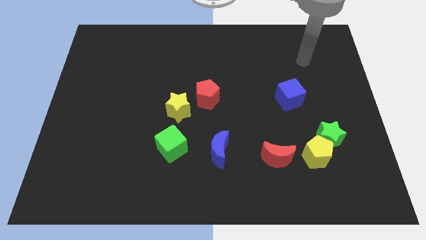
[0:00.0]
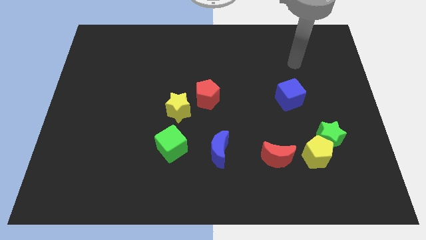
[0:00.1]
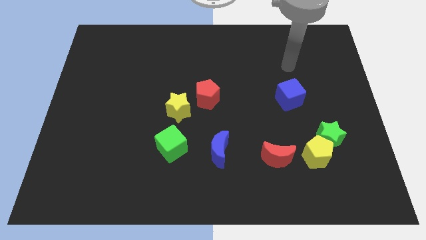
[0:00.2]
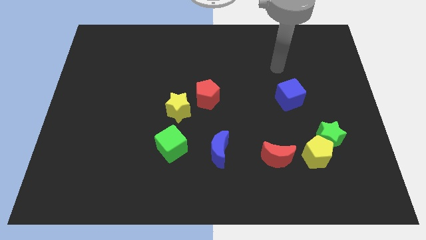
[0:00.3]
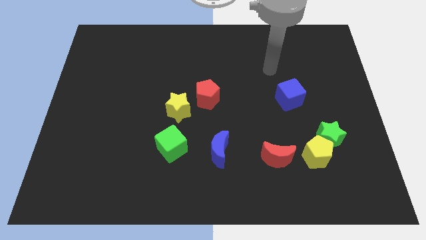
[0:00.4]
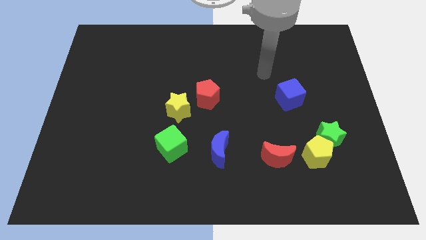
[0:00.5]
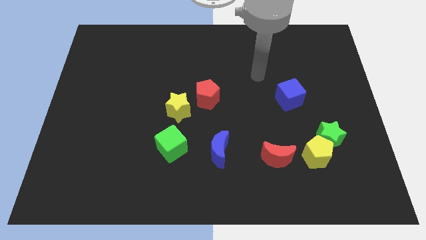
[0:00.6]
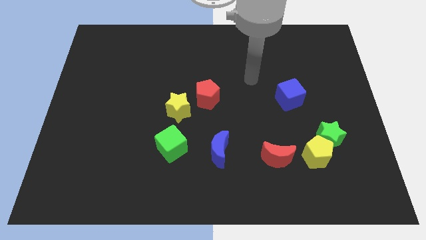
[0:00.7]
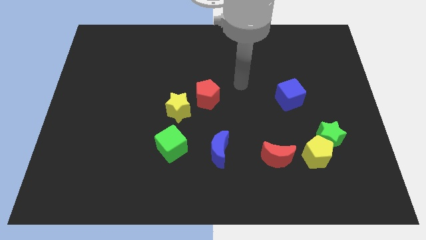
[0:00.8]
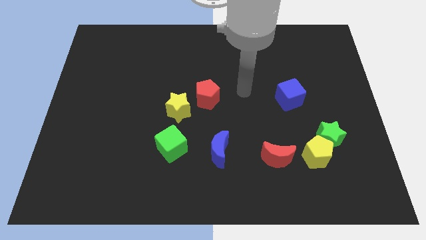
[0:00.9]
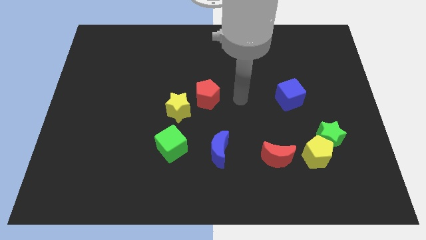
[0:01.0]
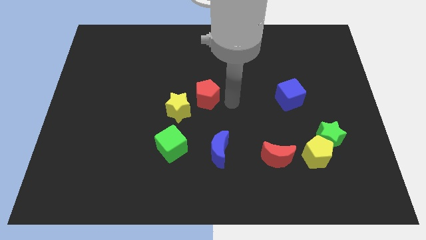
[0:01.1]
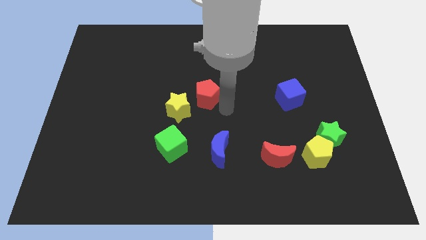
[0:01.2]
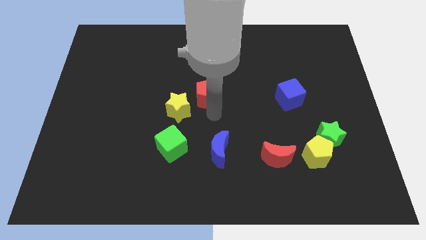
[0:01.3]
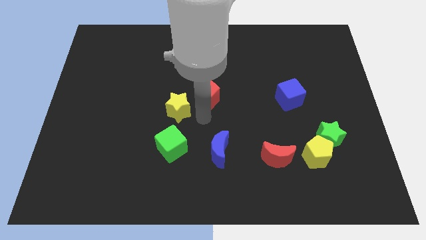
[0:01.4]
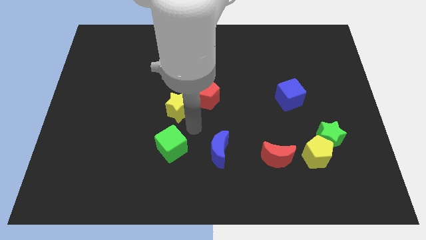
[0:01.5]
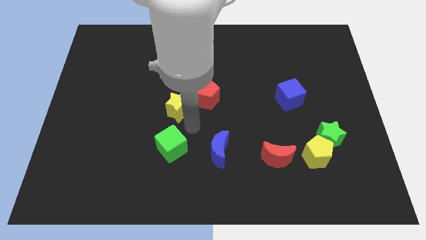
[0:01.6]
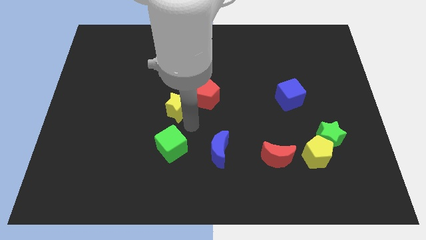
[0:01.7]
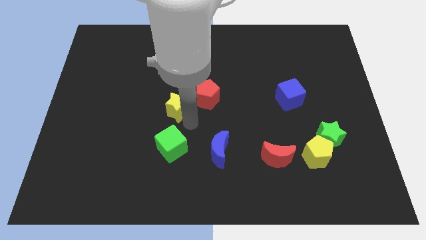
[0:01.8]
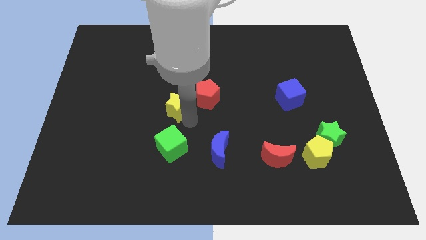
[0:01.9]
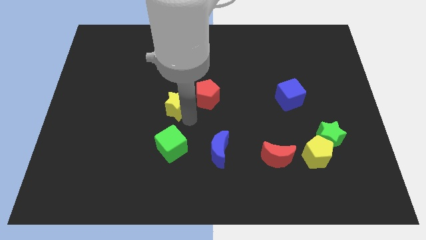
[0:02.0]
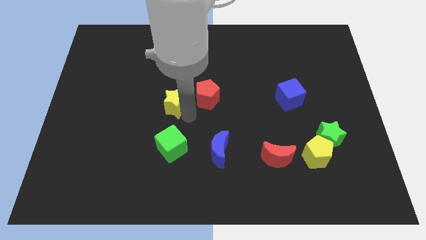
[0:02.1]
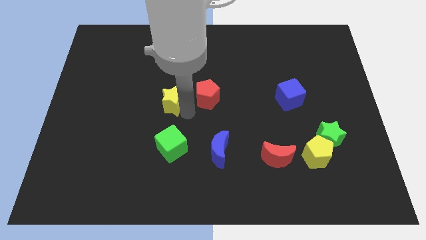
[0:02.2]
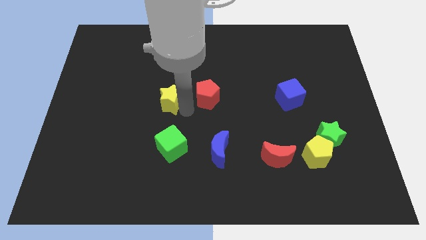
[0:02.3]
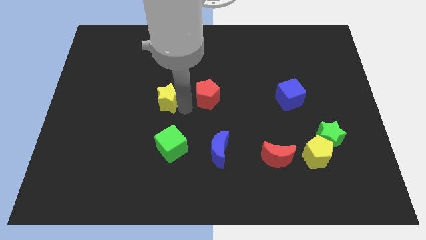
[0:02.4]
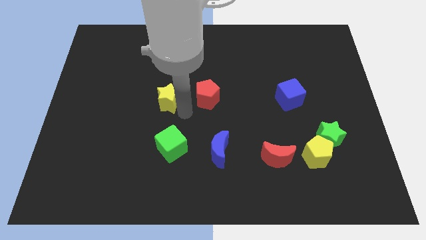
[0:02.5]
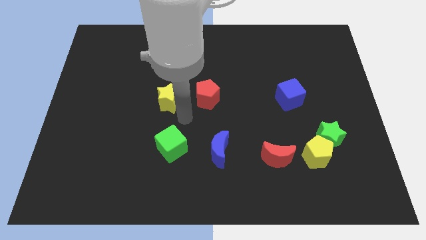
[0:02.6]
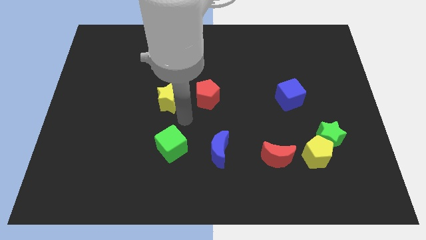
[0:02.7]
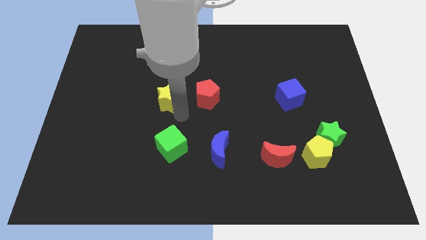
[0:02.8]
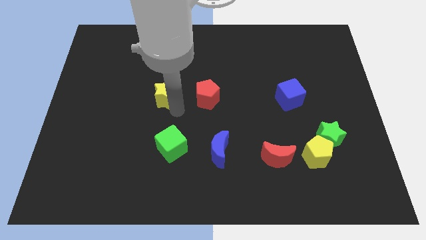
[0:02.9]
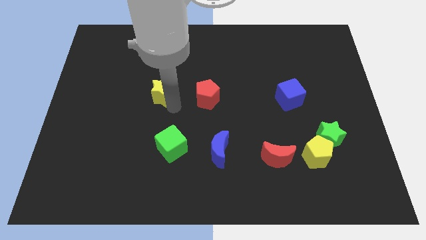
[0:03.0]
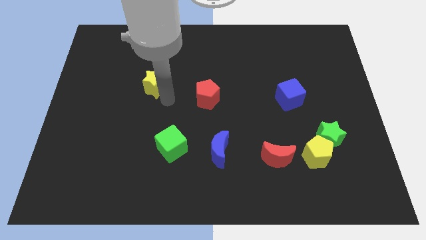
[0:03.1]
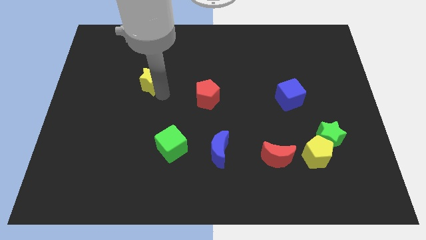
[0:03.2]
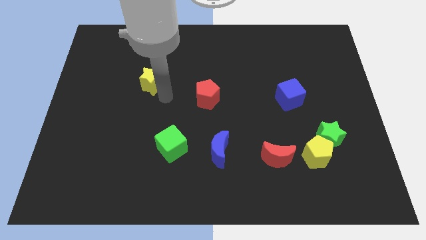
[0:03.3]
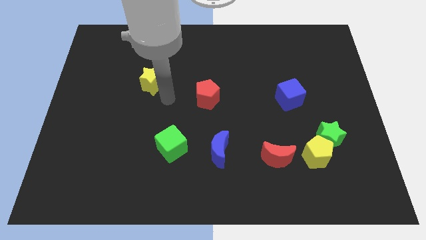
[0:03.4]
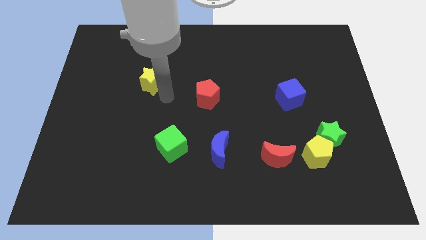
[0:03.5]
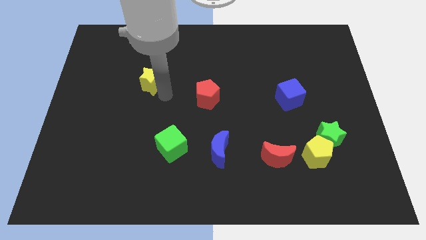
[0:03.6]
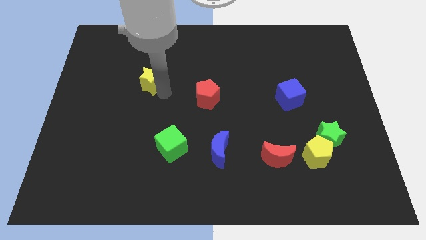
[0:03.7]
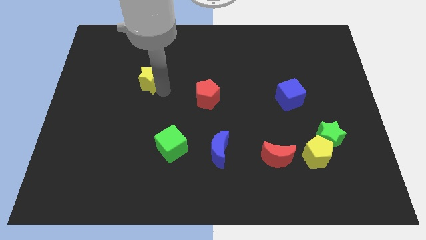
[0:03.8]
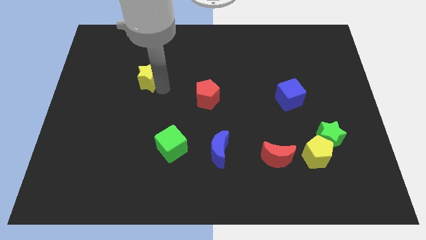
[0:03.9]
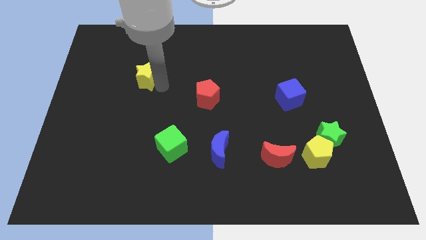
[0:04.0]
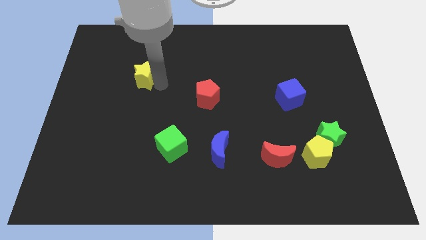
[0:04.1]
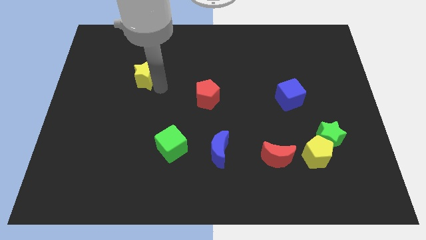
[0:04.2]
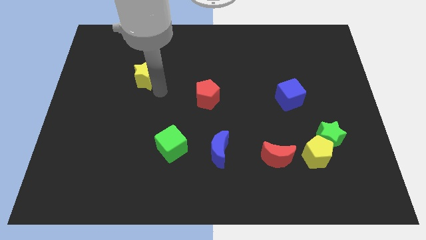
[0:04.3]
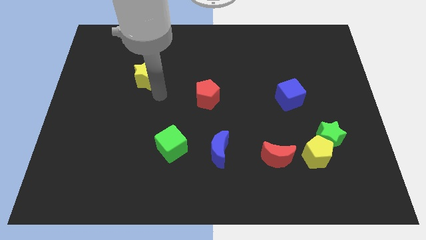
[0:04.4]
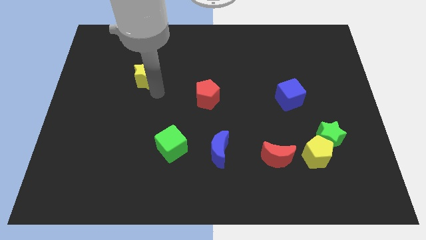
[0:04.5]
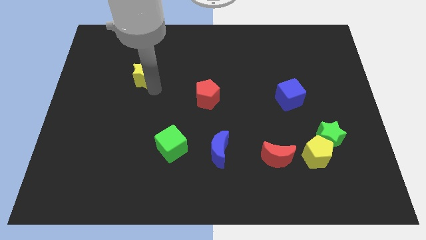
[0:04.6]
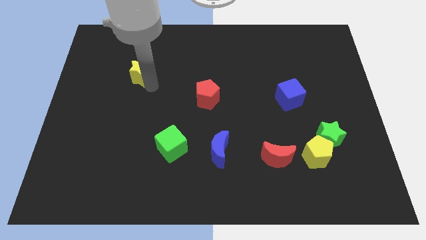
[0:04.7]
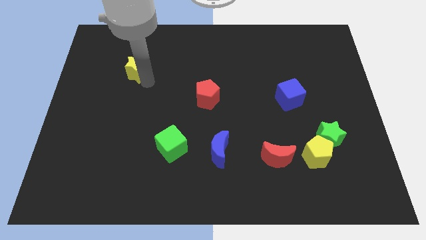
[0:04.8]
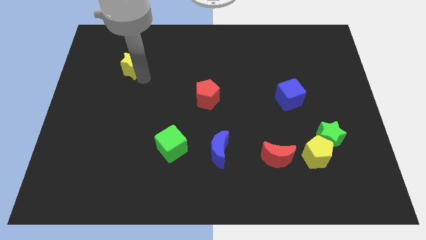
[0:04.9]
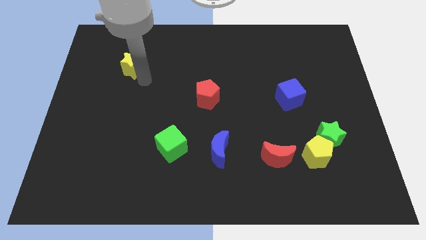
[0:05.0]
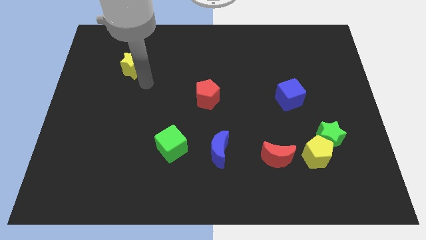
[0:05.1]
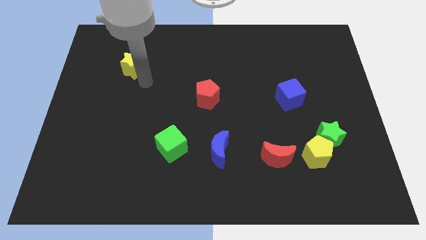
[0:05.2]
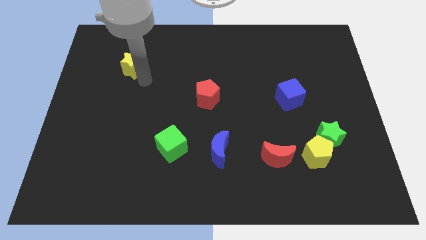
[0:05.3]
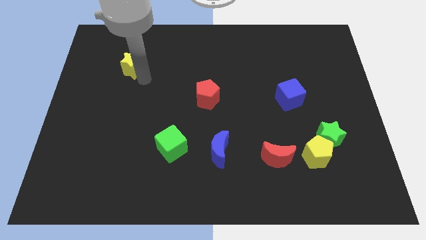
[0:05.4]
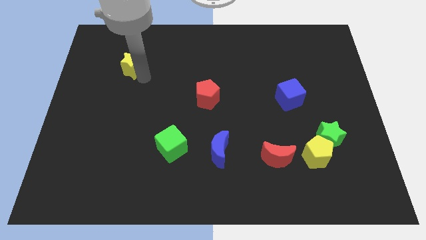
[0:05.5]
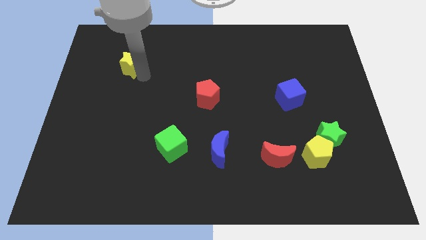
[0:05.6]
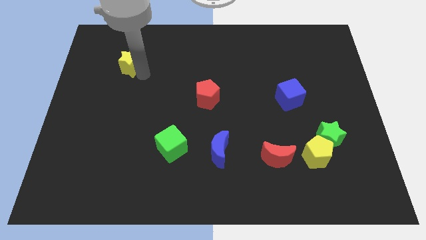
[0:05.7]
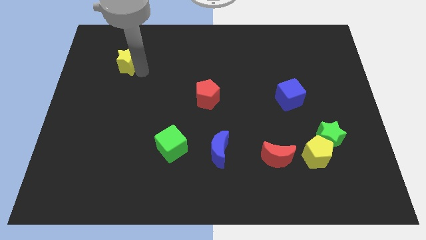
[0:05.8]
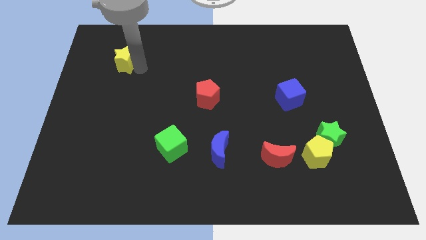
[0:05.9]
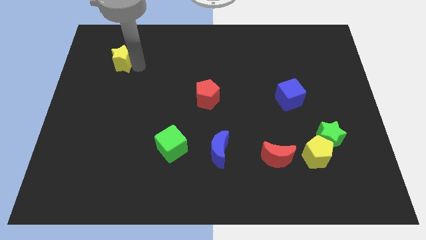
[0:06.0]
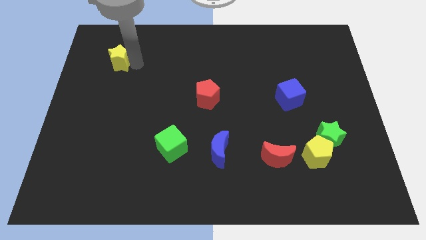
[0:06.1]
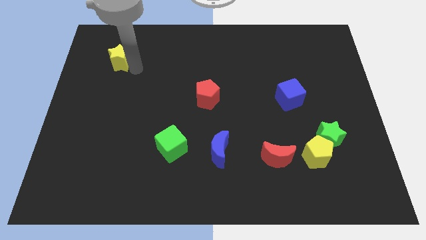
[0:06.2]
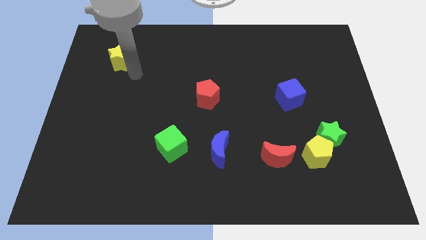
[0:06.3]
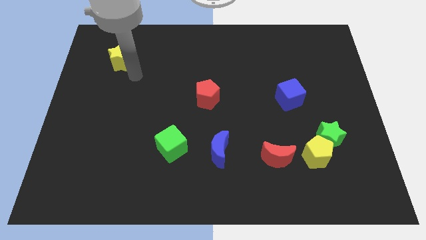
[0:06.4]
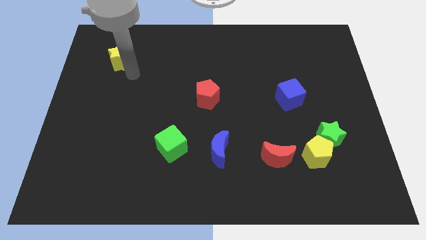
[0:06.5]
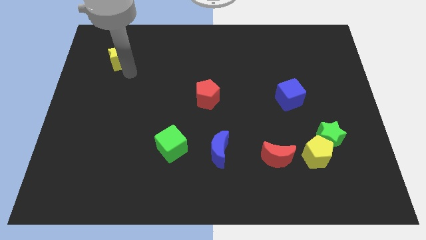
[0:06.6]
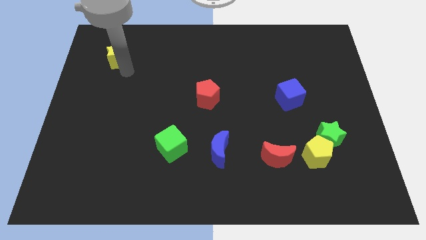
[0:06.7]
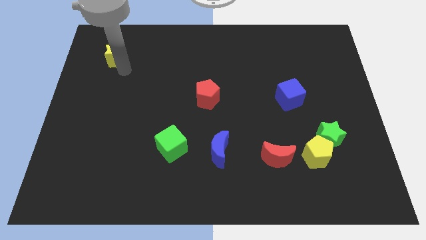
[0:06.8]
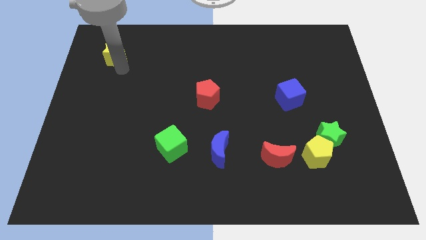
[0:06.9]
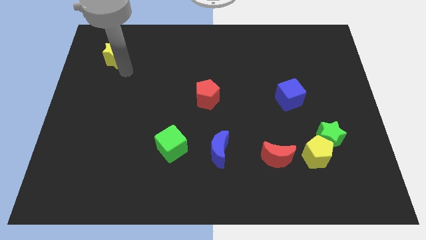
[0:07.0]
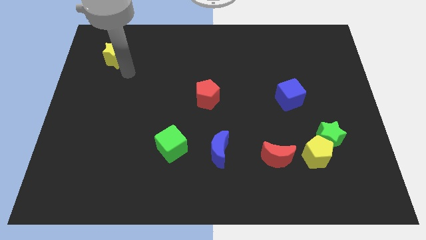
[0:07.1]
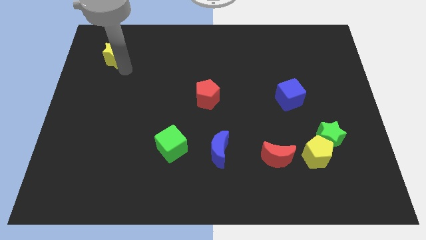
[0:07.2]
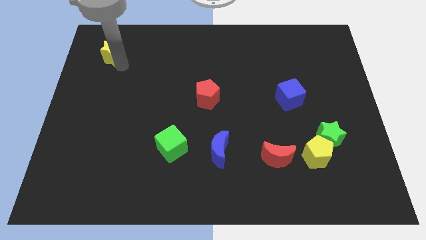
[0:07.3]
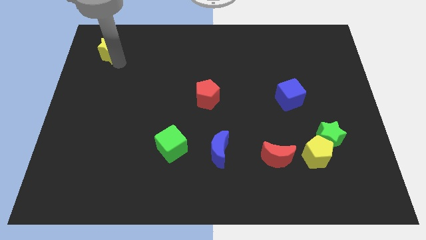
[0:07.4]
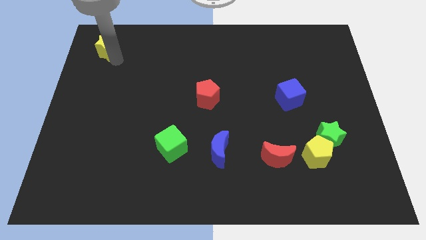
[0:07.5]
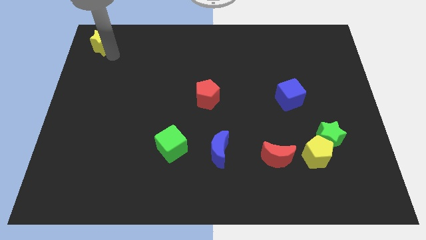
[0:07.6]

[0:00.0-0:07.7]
move the yellow star to the top left of the board
